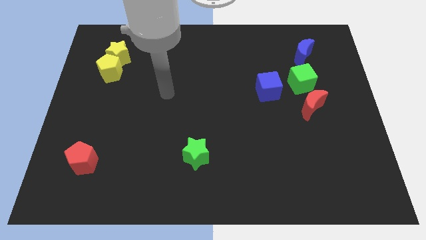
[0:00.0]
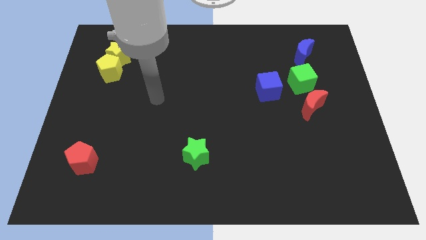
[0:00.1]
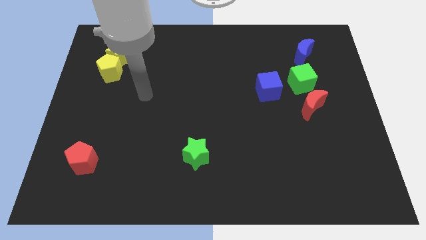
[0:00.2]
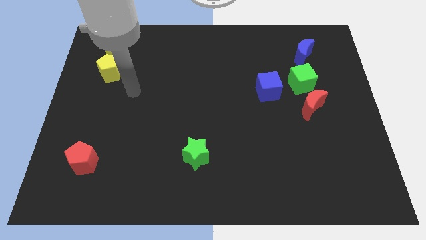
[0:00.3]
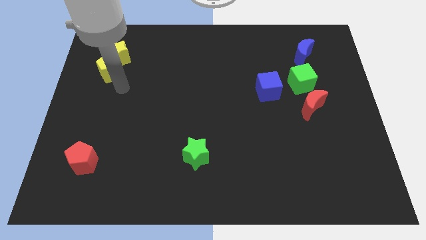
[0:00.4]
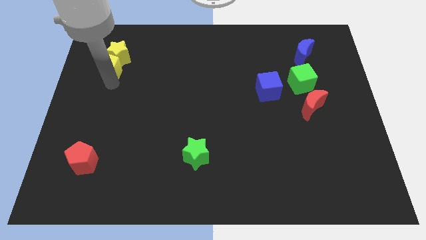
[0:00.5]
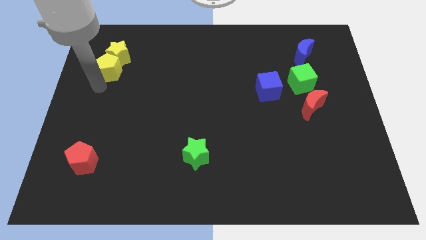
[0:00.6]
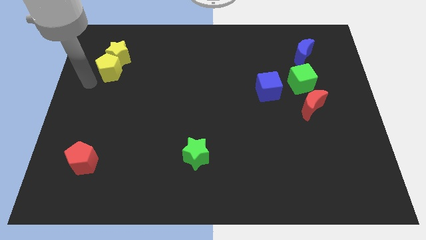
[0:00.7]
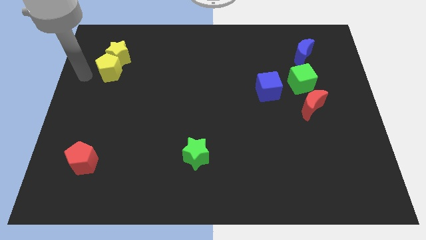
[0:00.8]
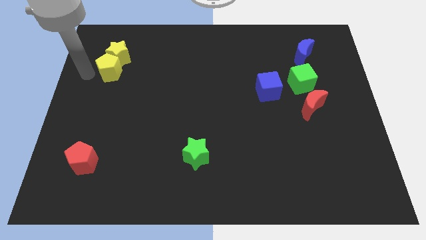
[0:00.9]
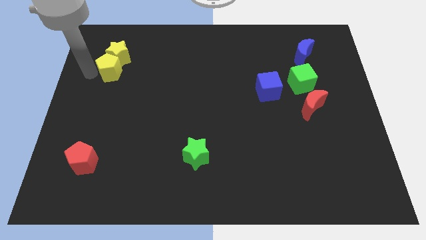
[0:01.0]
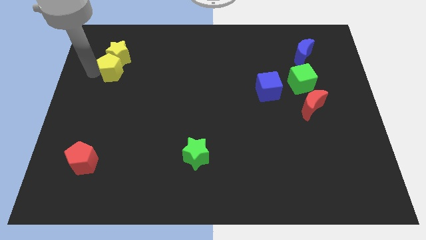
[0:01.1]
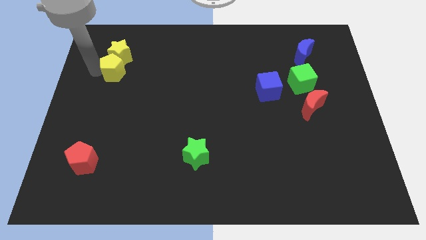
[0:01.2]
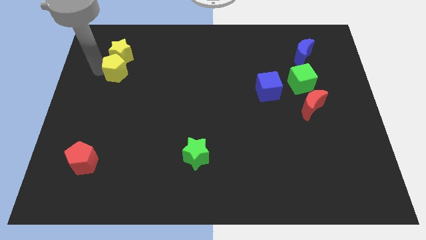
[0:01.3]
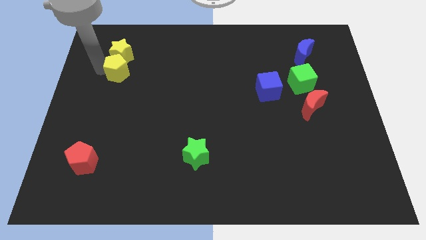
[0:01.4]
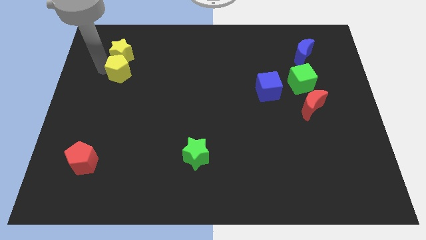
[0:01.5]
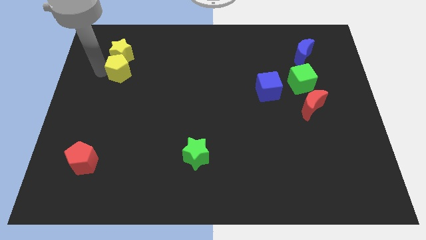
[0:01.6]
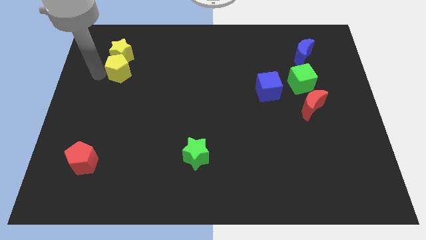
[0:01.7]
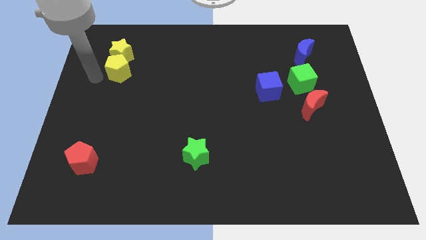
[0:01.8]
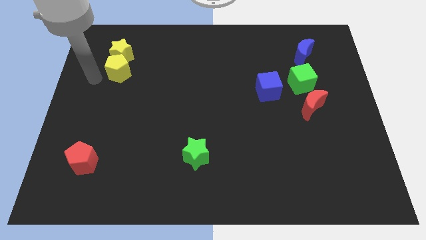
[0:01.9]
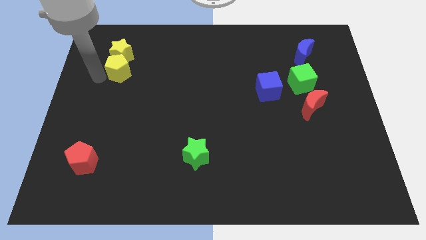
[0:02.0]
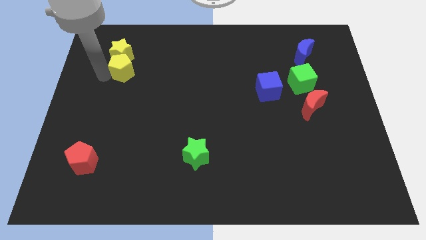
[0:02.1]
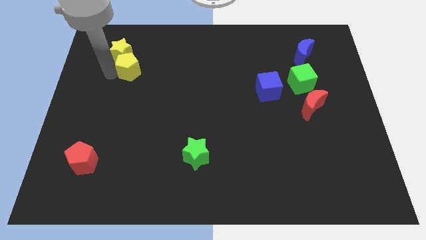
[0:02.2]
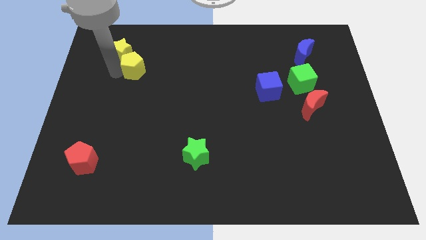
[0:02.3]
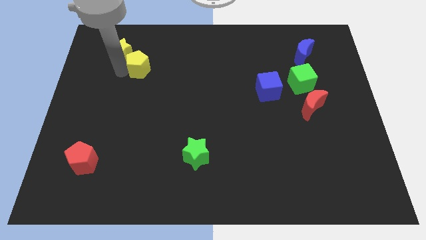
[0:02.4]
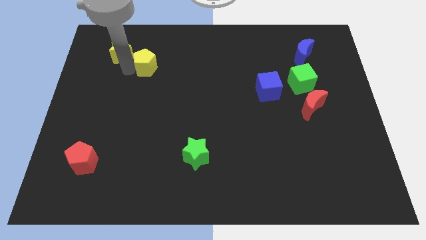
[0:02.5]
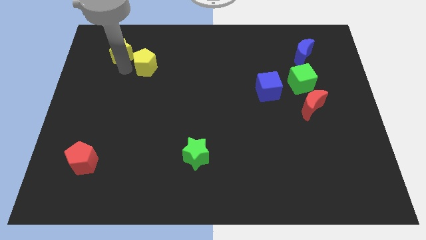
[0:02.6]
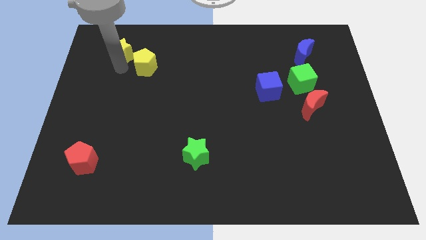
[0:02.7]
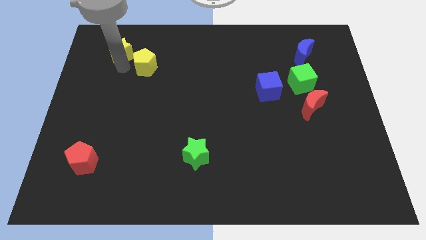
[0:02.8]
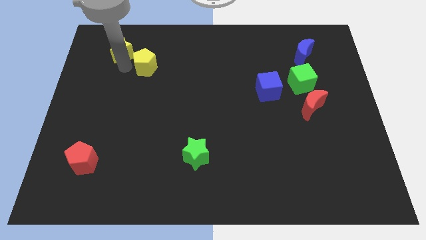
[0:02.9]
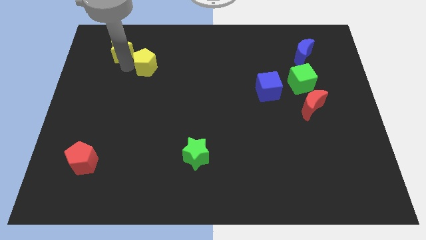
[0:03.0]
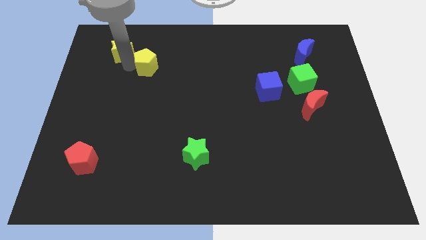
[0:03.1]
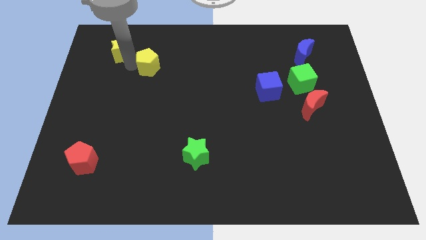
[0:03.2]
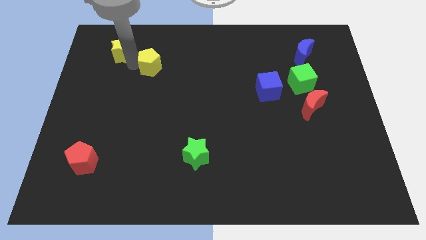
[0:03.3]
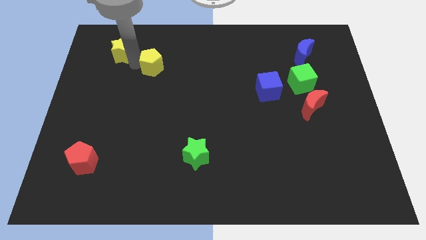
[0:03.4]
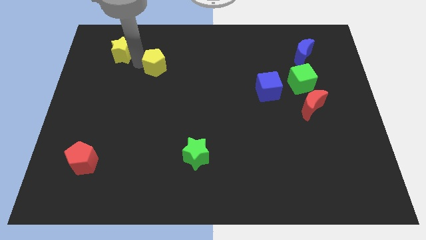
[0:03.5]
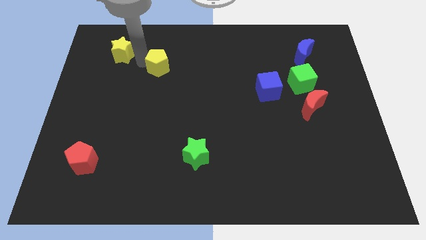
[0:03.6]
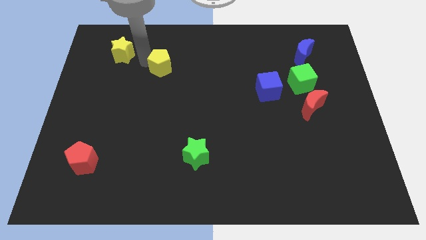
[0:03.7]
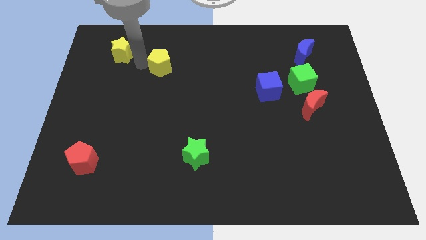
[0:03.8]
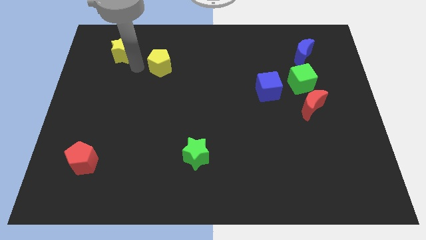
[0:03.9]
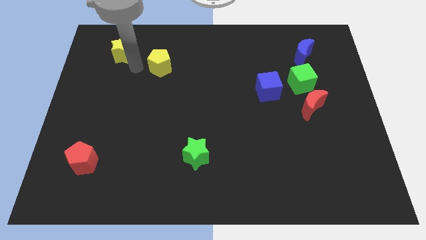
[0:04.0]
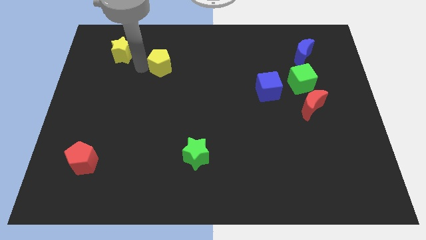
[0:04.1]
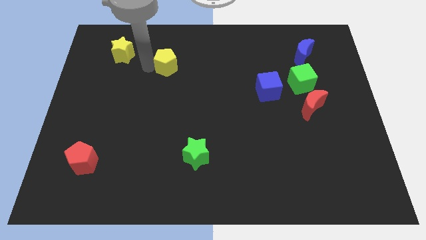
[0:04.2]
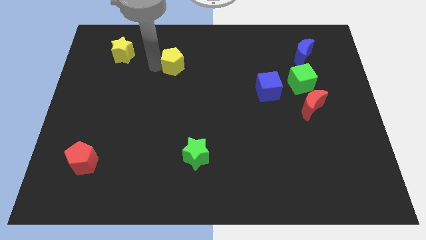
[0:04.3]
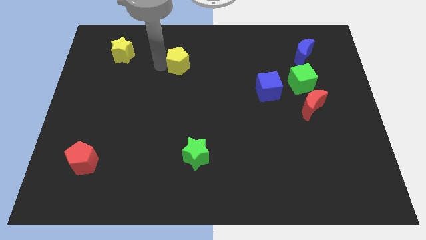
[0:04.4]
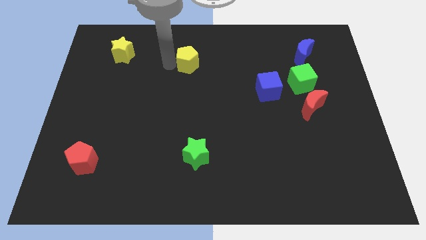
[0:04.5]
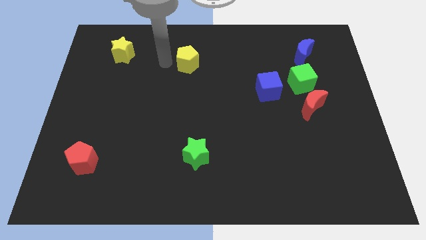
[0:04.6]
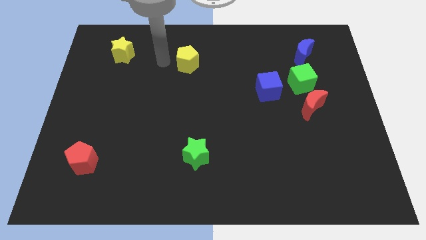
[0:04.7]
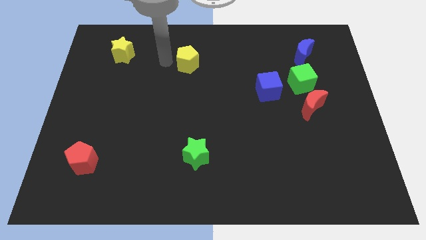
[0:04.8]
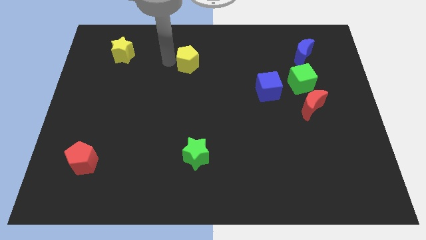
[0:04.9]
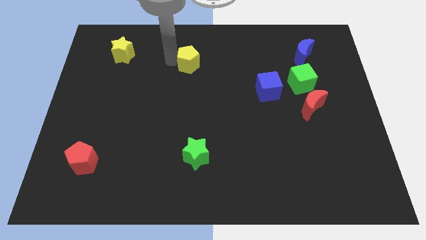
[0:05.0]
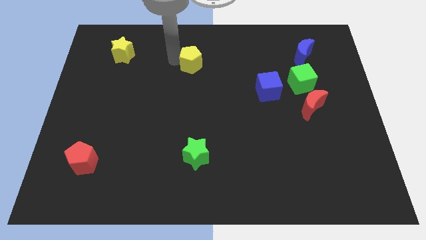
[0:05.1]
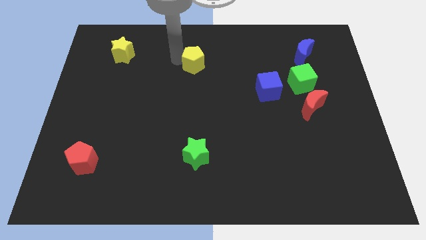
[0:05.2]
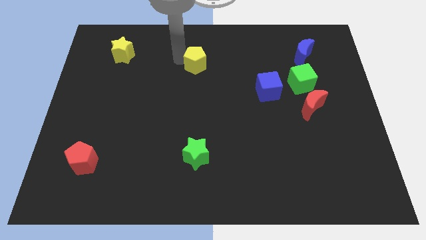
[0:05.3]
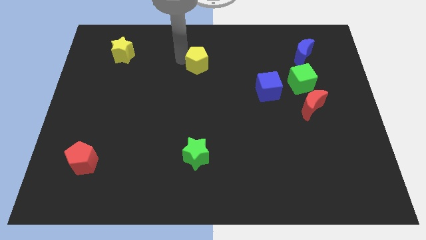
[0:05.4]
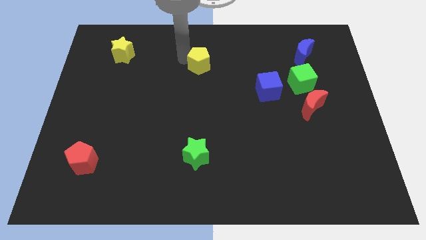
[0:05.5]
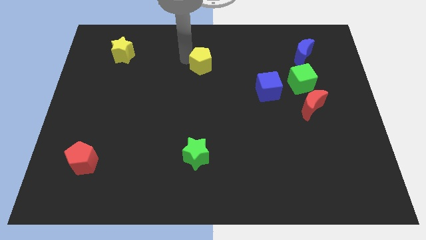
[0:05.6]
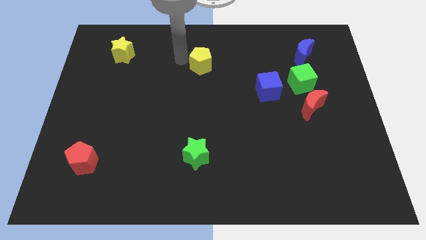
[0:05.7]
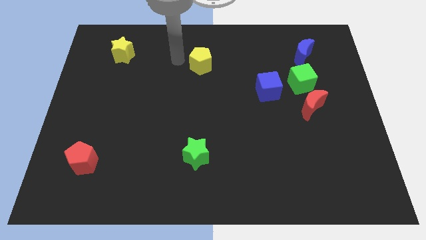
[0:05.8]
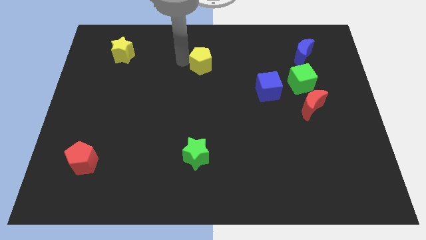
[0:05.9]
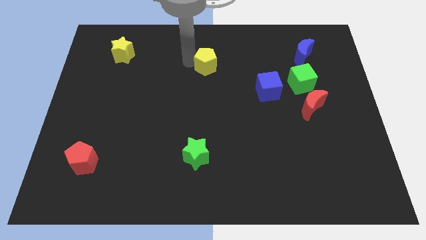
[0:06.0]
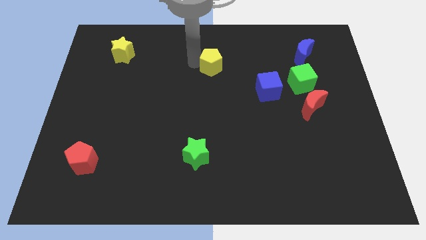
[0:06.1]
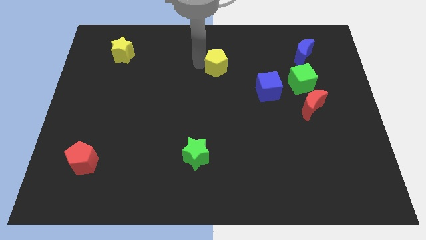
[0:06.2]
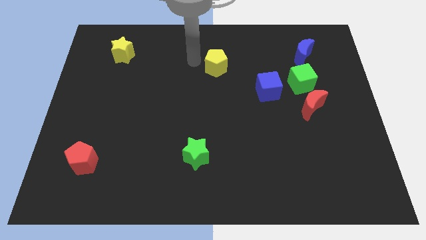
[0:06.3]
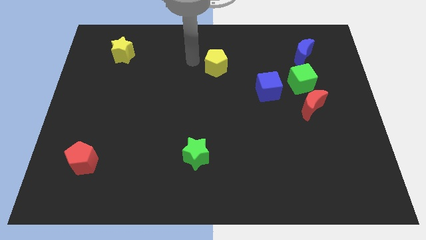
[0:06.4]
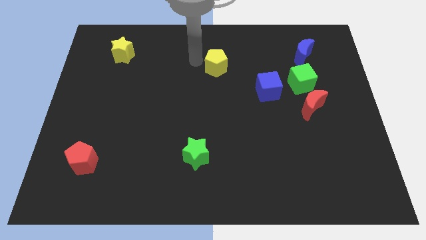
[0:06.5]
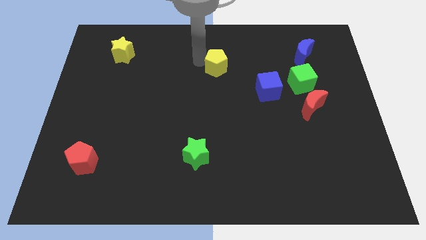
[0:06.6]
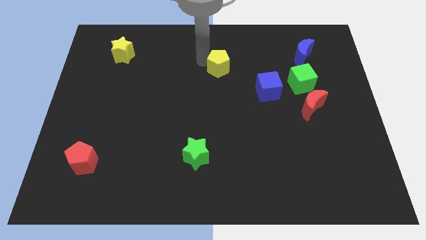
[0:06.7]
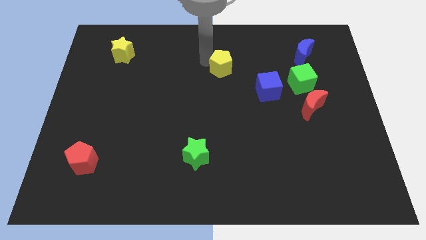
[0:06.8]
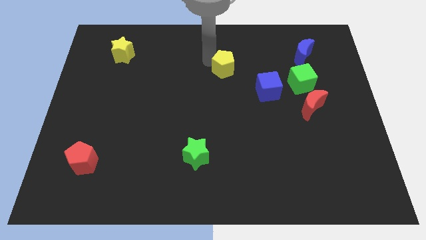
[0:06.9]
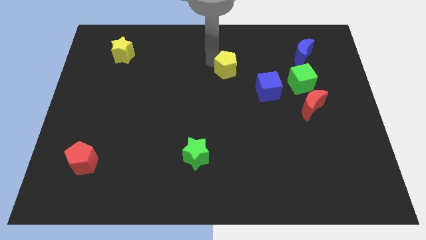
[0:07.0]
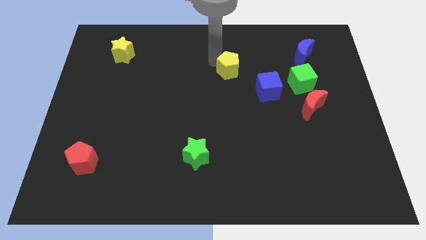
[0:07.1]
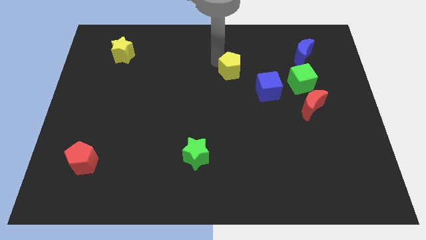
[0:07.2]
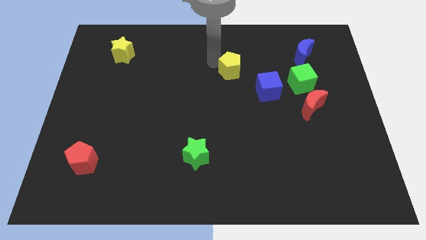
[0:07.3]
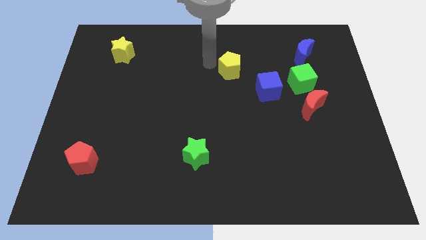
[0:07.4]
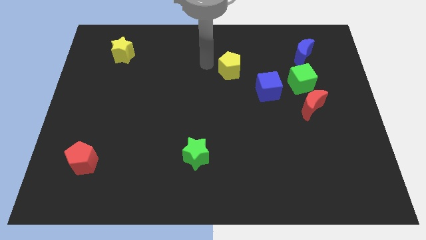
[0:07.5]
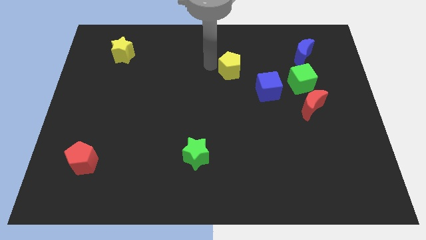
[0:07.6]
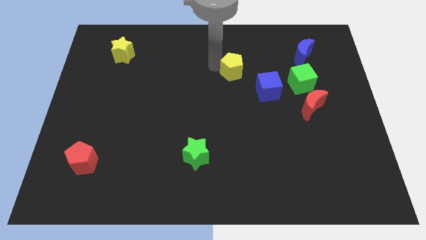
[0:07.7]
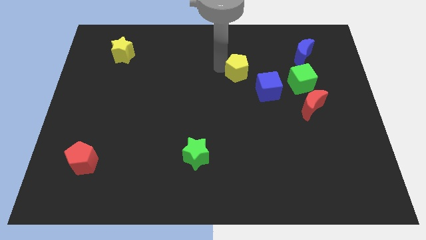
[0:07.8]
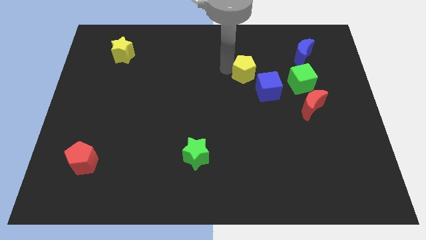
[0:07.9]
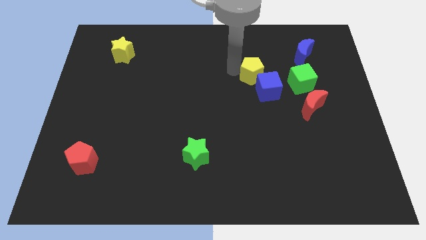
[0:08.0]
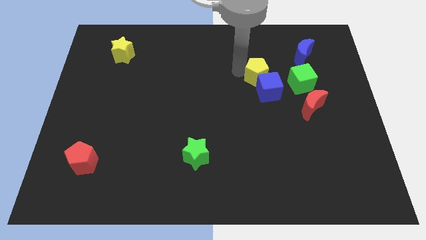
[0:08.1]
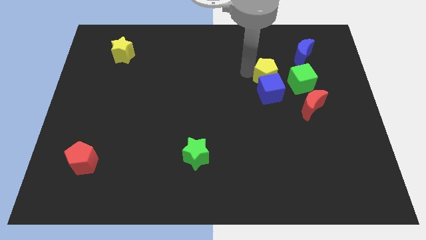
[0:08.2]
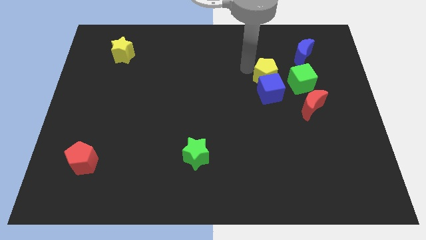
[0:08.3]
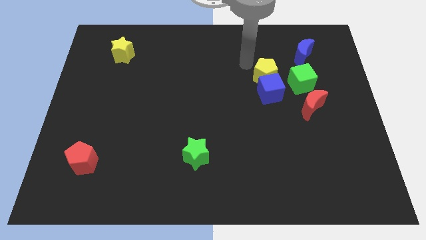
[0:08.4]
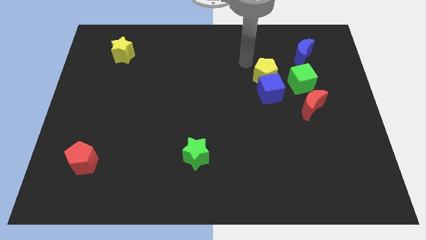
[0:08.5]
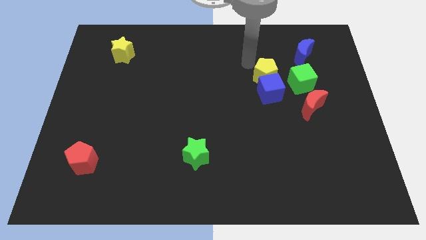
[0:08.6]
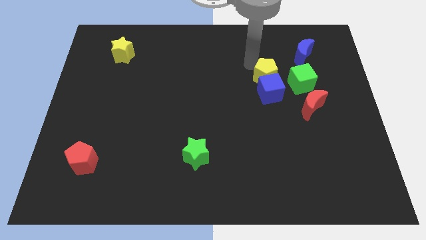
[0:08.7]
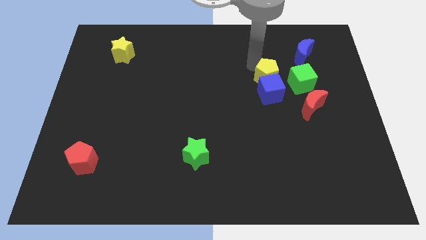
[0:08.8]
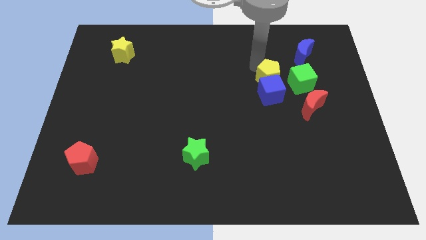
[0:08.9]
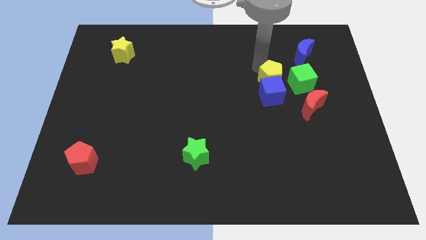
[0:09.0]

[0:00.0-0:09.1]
move the yellow pentagon to the top left side of the red moon
